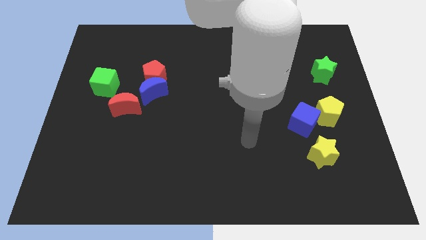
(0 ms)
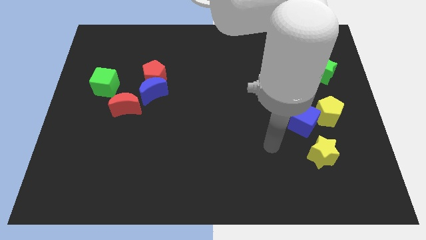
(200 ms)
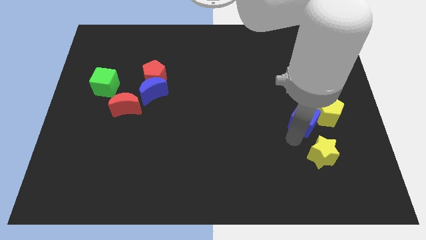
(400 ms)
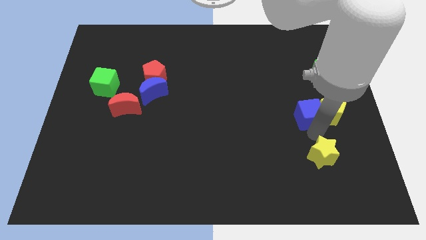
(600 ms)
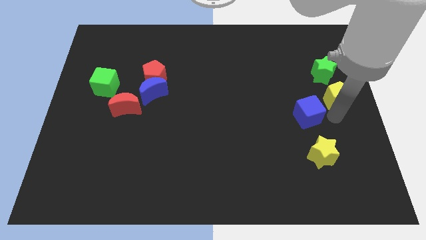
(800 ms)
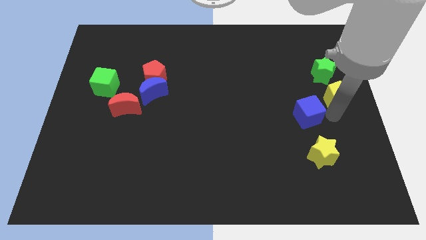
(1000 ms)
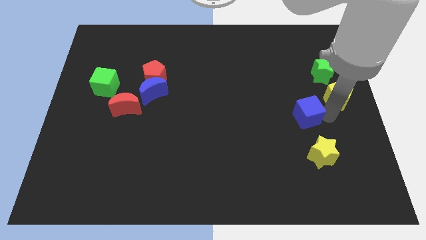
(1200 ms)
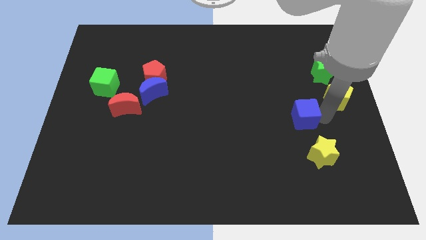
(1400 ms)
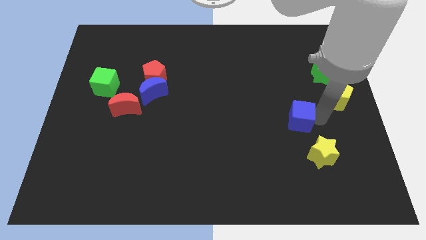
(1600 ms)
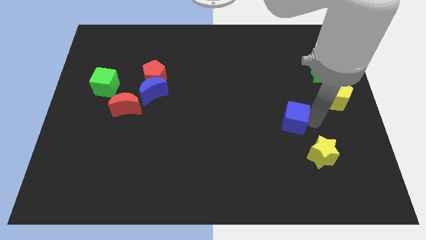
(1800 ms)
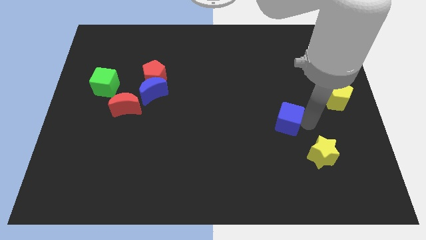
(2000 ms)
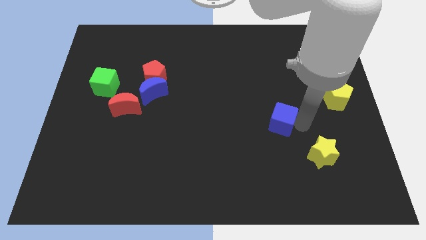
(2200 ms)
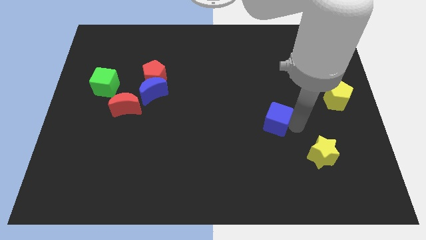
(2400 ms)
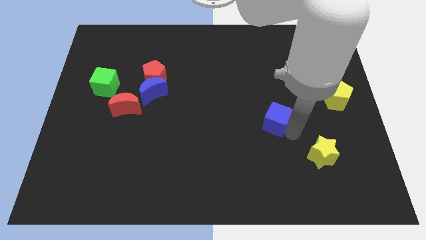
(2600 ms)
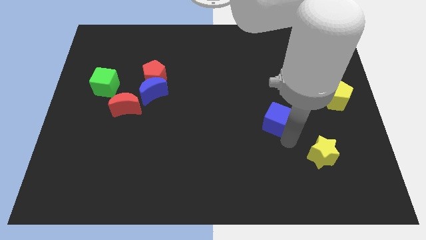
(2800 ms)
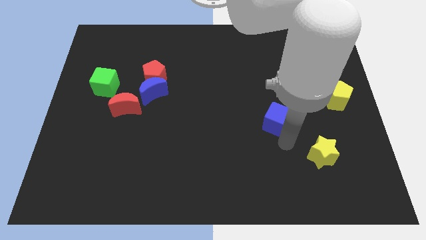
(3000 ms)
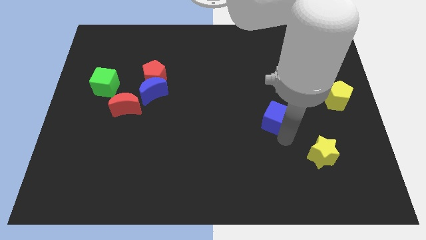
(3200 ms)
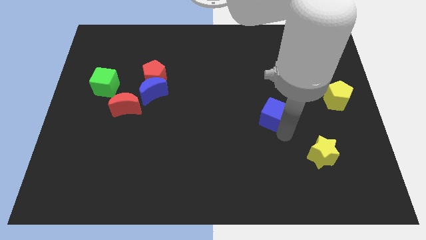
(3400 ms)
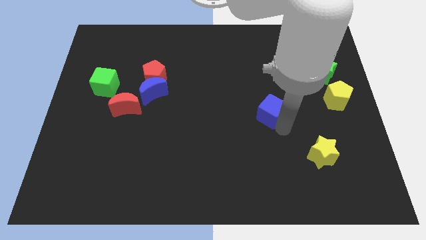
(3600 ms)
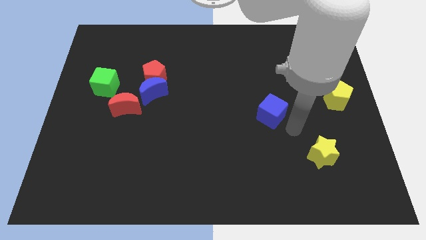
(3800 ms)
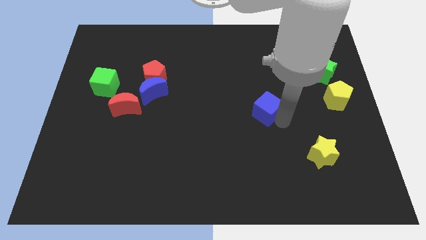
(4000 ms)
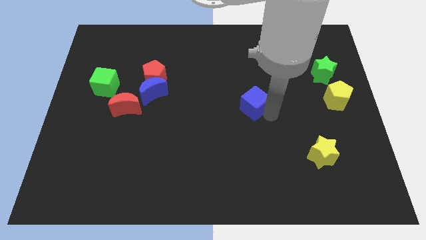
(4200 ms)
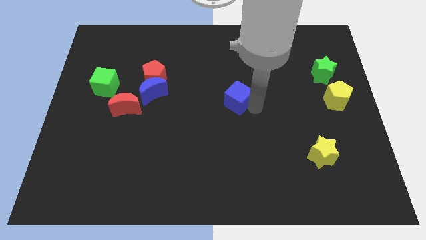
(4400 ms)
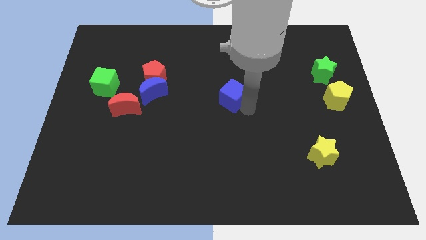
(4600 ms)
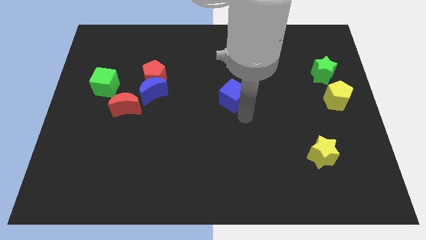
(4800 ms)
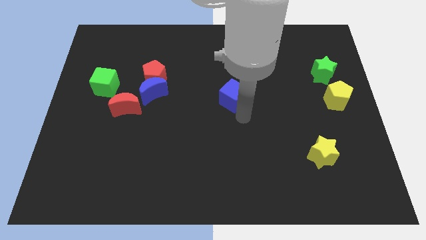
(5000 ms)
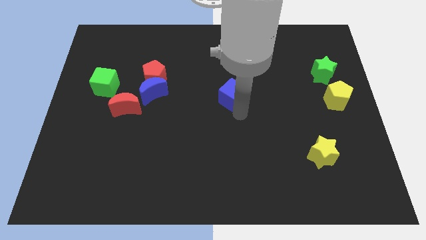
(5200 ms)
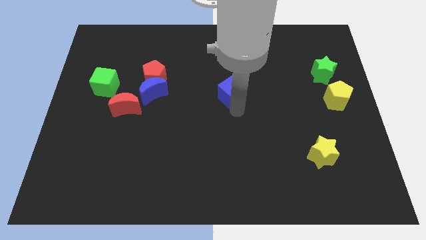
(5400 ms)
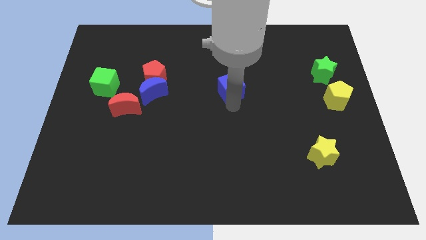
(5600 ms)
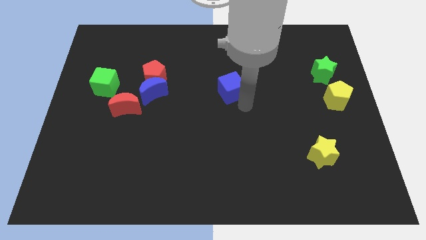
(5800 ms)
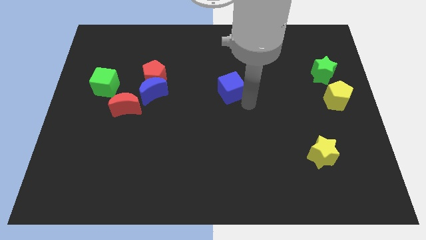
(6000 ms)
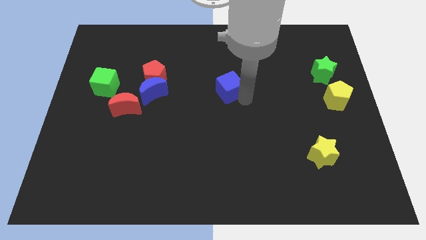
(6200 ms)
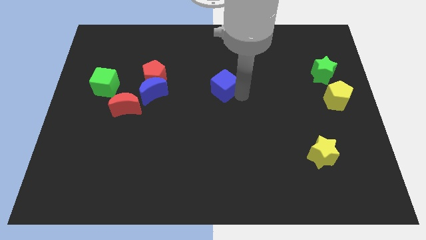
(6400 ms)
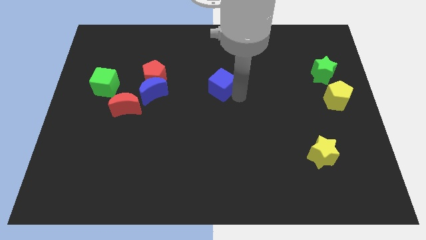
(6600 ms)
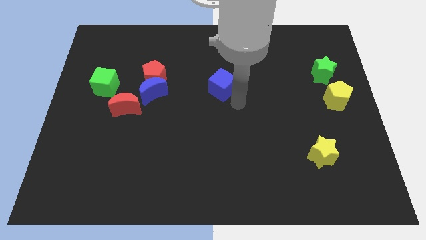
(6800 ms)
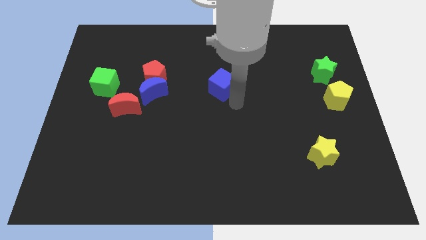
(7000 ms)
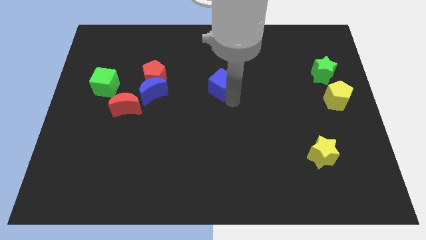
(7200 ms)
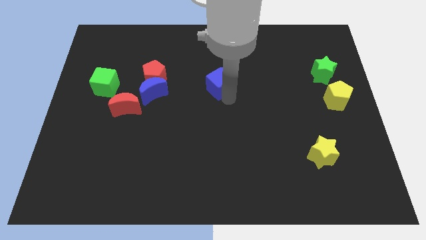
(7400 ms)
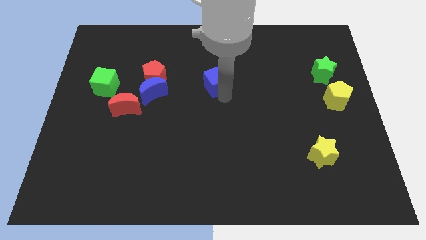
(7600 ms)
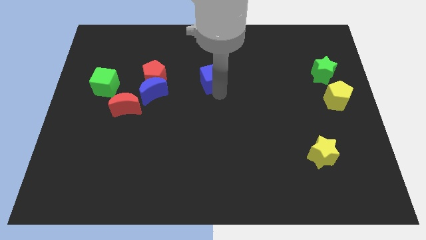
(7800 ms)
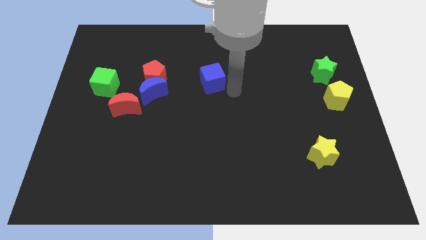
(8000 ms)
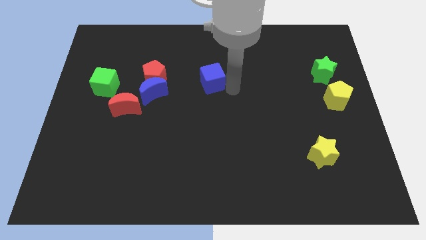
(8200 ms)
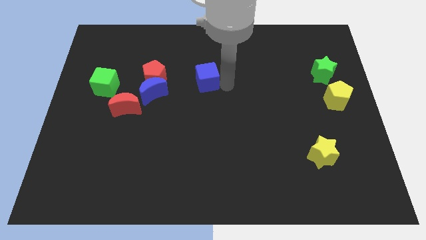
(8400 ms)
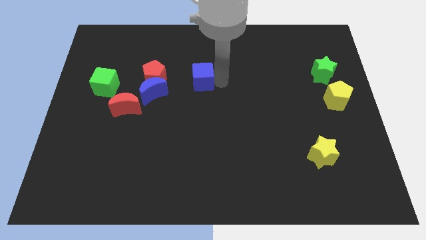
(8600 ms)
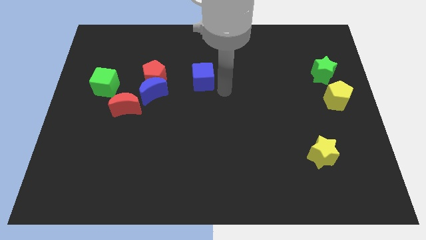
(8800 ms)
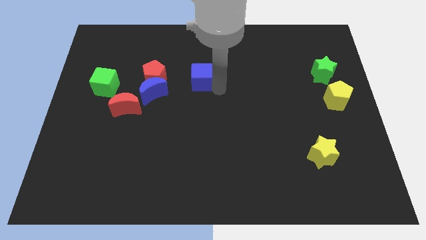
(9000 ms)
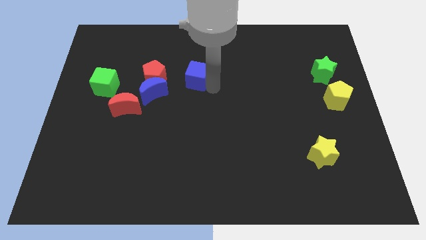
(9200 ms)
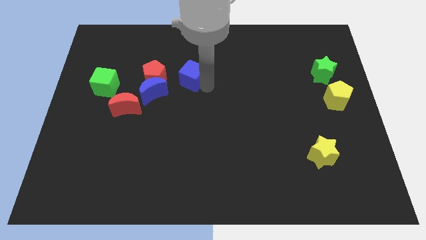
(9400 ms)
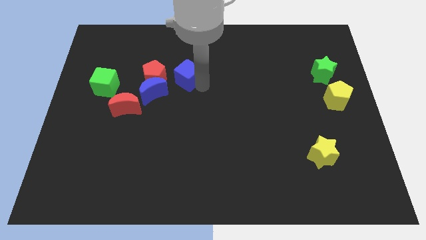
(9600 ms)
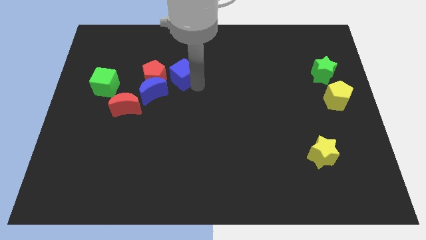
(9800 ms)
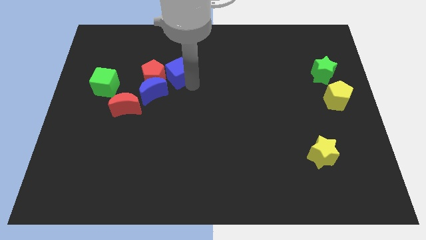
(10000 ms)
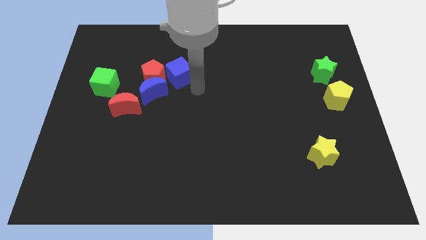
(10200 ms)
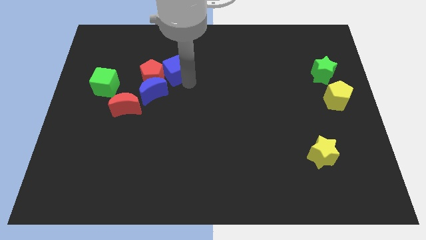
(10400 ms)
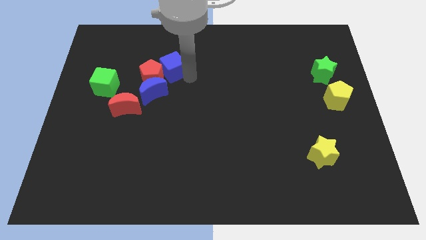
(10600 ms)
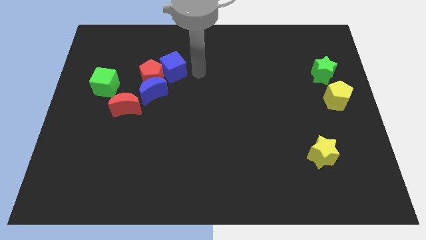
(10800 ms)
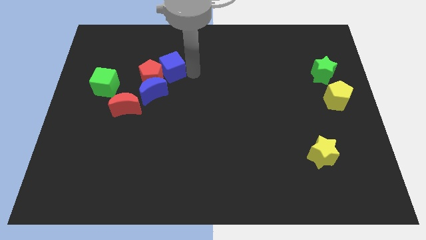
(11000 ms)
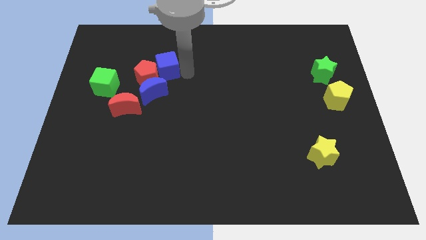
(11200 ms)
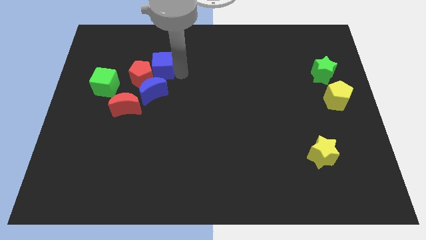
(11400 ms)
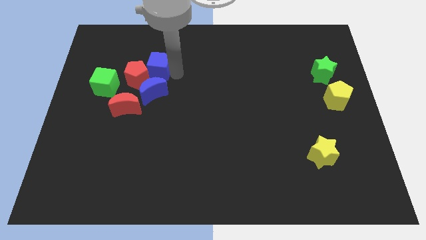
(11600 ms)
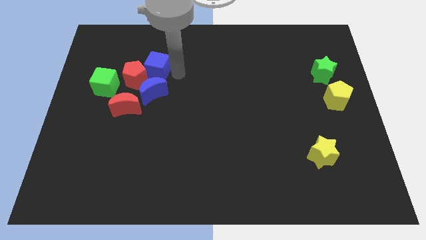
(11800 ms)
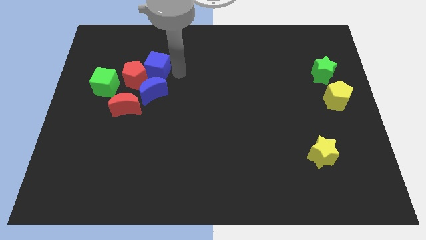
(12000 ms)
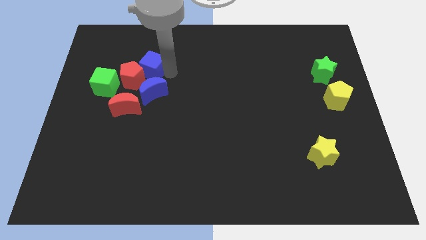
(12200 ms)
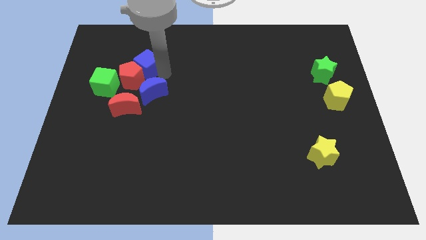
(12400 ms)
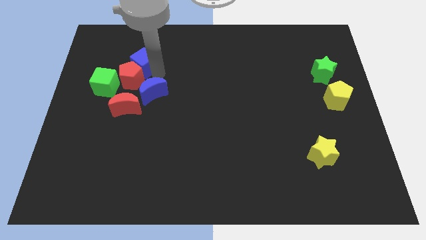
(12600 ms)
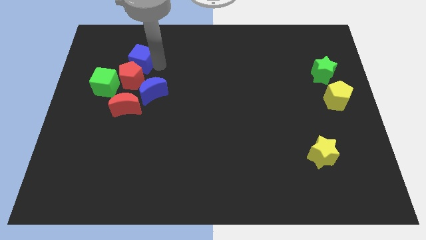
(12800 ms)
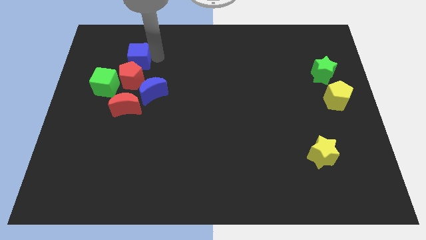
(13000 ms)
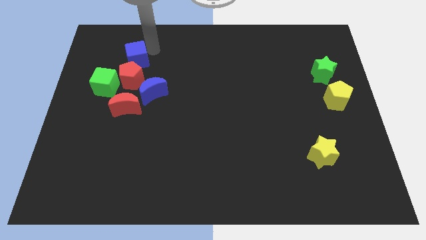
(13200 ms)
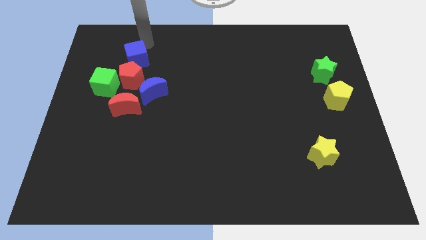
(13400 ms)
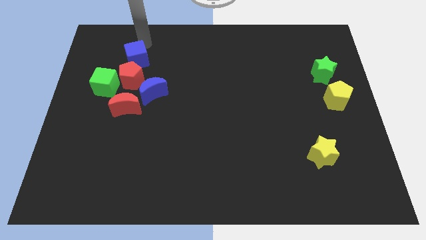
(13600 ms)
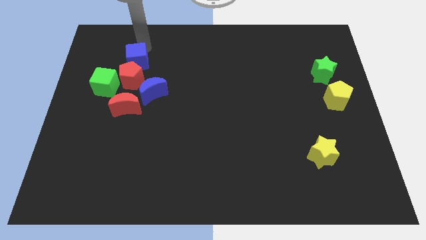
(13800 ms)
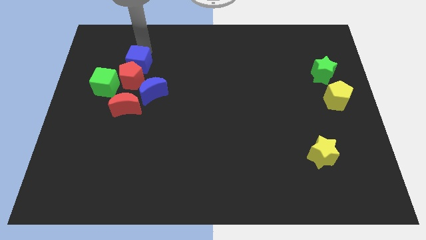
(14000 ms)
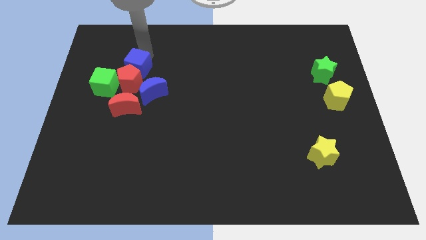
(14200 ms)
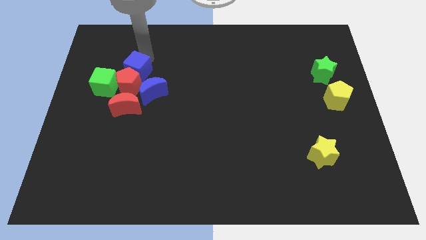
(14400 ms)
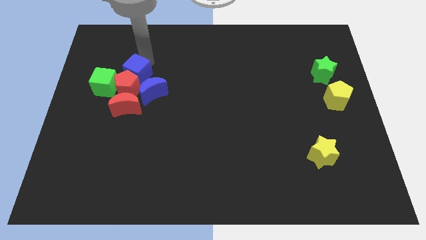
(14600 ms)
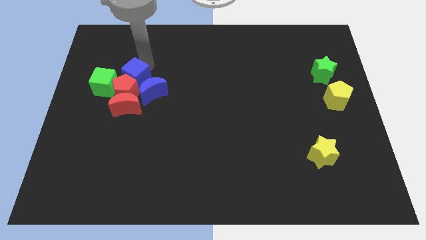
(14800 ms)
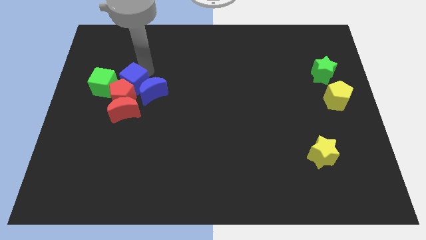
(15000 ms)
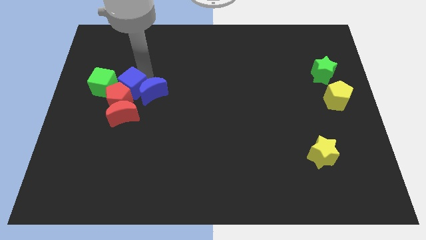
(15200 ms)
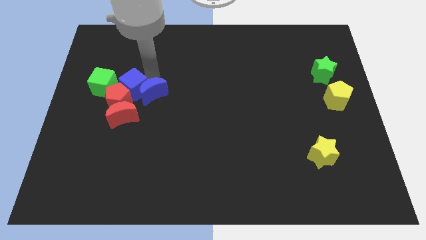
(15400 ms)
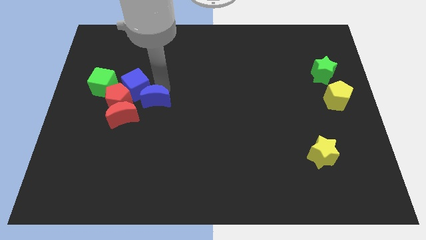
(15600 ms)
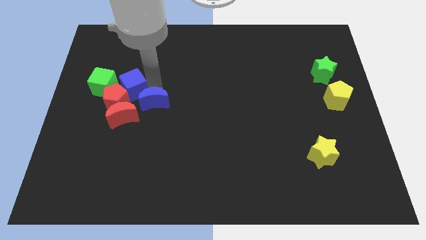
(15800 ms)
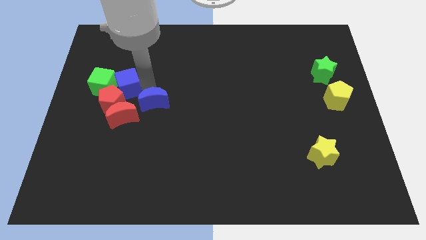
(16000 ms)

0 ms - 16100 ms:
move the blue cube towards the green cube
